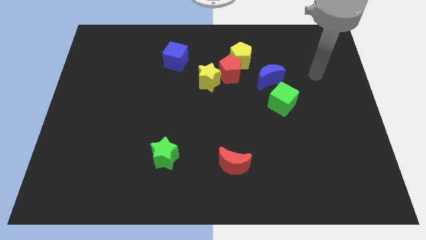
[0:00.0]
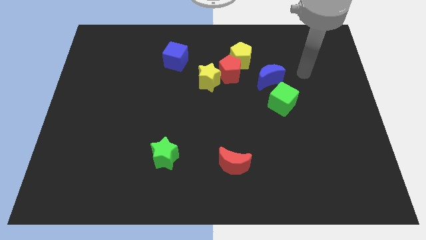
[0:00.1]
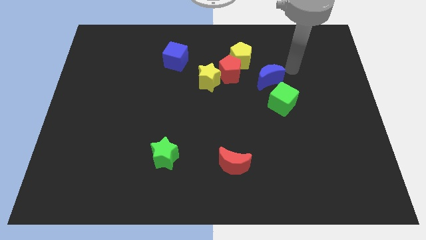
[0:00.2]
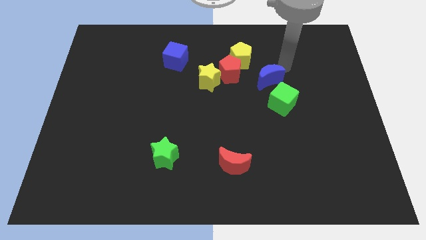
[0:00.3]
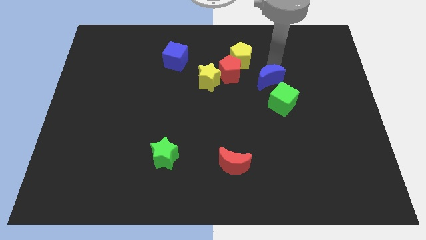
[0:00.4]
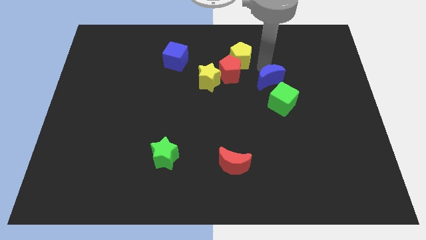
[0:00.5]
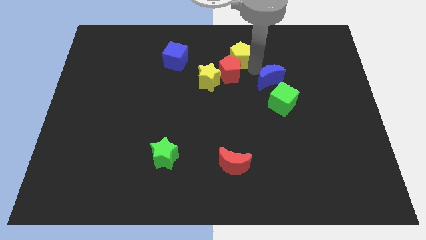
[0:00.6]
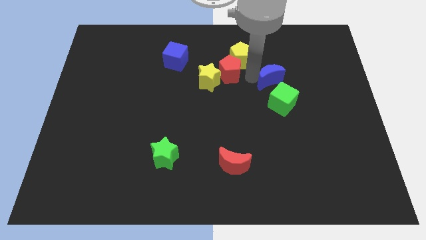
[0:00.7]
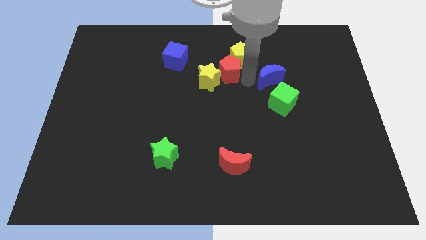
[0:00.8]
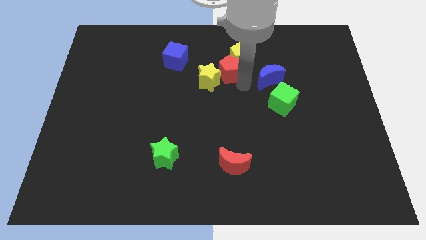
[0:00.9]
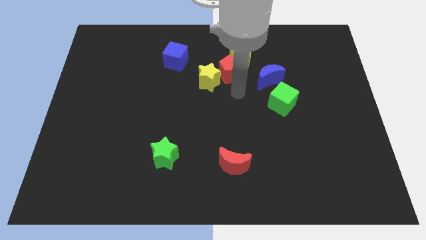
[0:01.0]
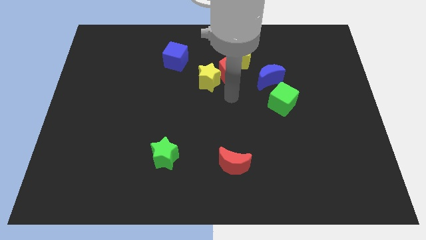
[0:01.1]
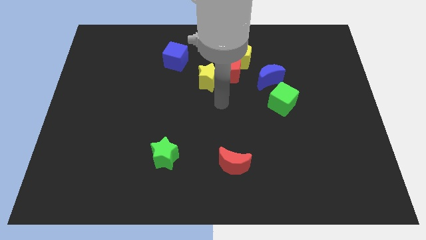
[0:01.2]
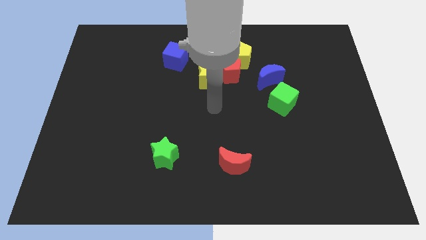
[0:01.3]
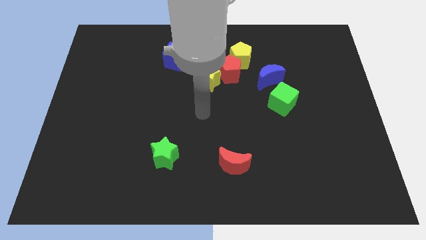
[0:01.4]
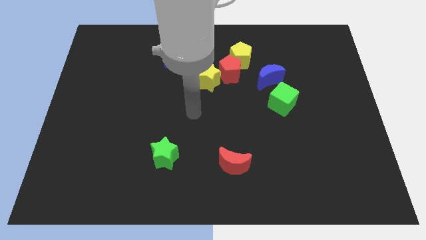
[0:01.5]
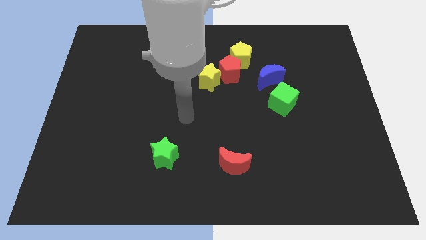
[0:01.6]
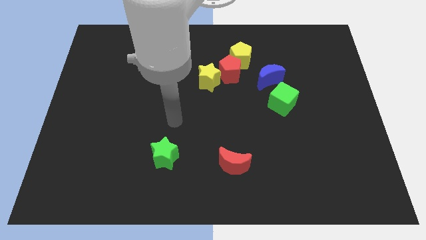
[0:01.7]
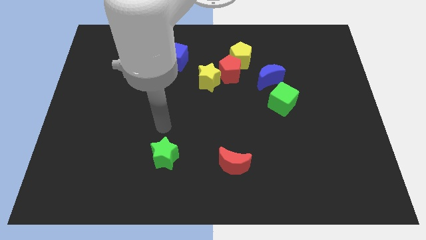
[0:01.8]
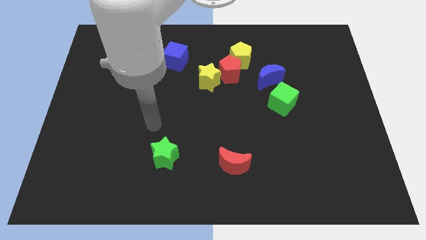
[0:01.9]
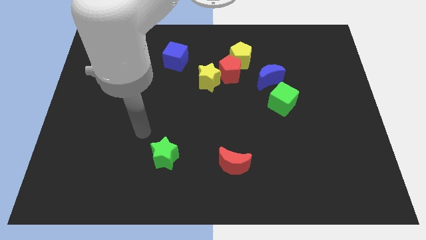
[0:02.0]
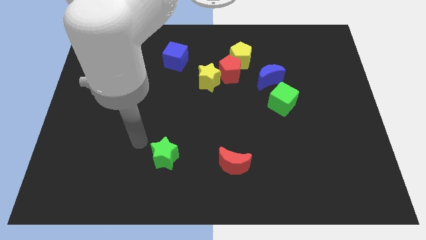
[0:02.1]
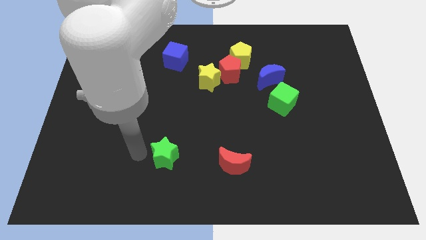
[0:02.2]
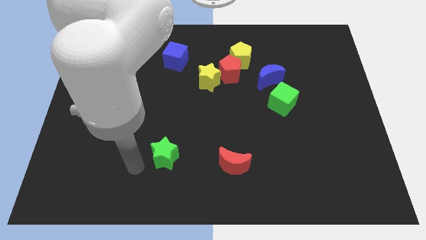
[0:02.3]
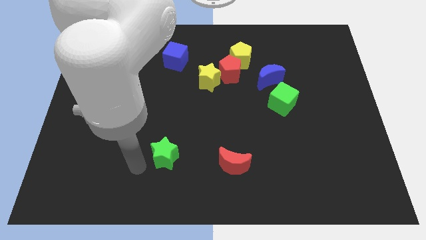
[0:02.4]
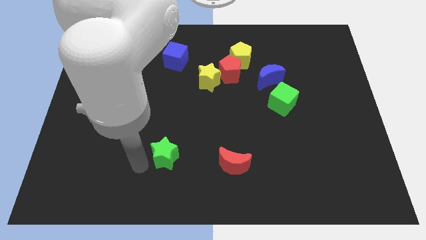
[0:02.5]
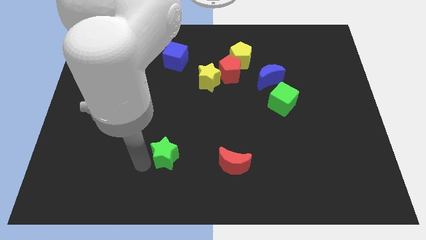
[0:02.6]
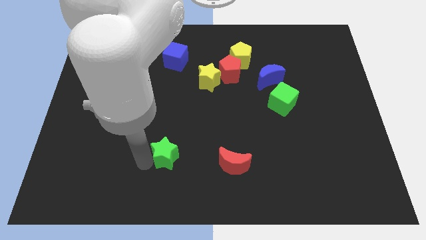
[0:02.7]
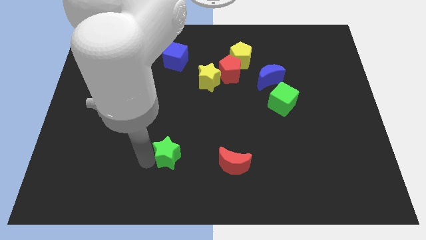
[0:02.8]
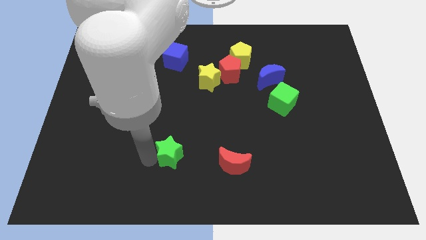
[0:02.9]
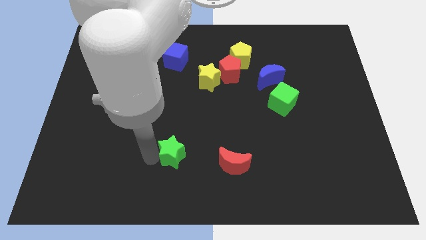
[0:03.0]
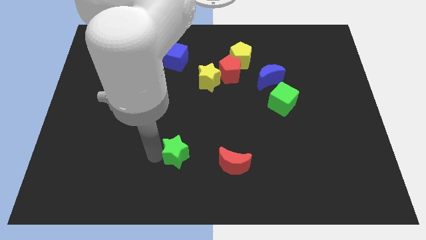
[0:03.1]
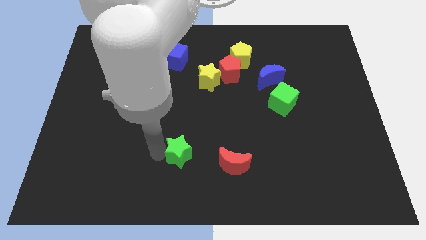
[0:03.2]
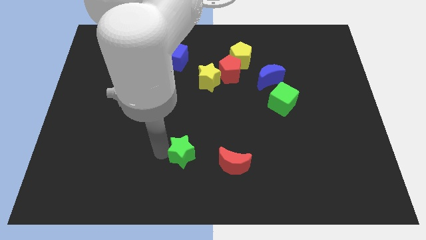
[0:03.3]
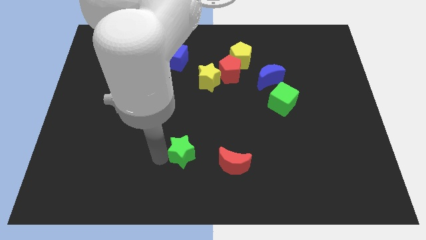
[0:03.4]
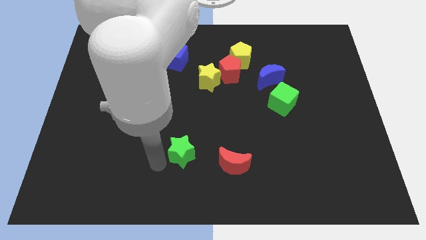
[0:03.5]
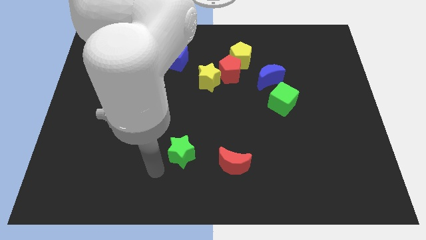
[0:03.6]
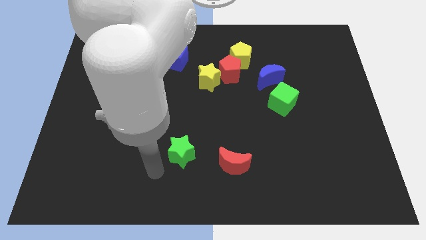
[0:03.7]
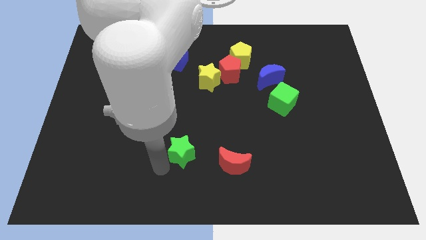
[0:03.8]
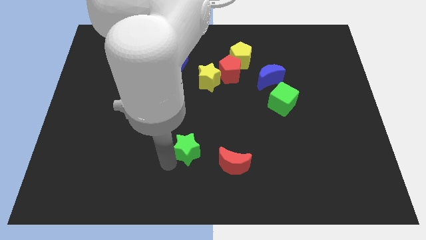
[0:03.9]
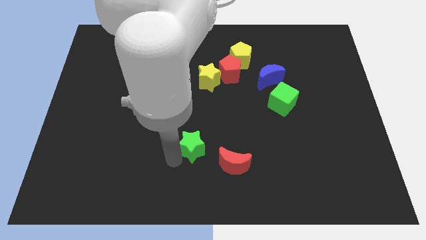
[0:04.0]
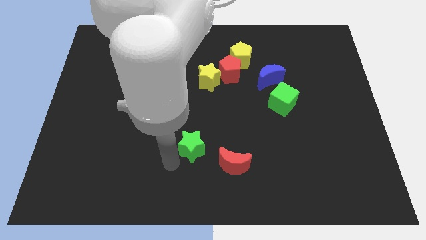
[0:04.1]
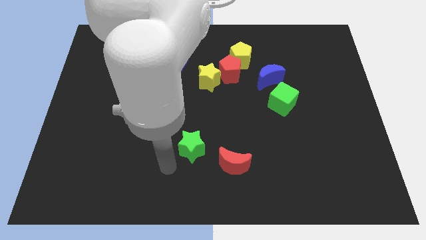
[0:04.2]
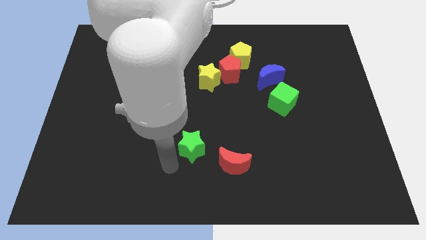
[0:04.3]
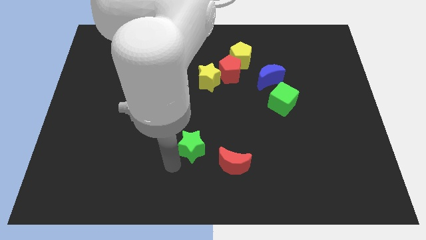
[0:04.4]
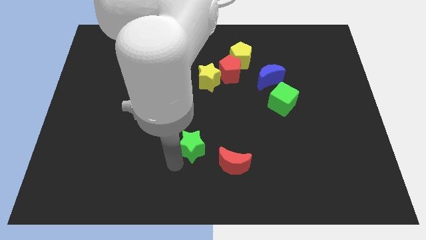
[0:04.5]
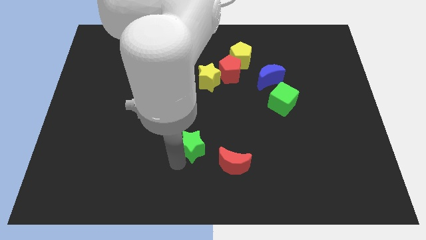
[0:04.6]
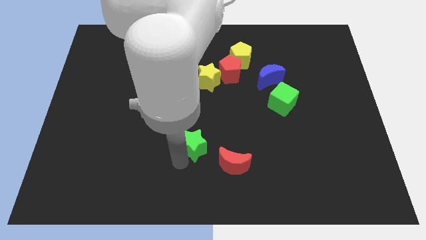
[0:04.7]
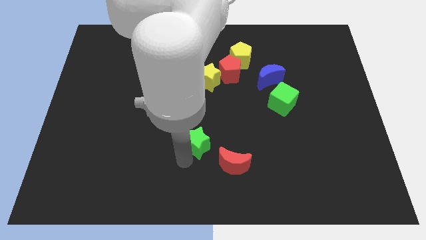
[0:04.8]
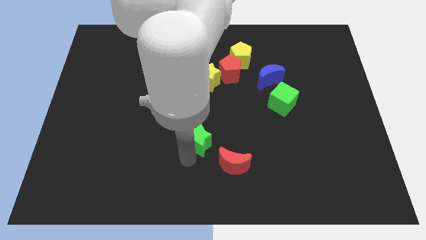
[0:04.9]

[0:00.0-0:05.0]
slide the green star a little bit right

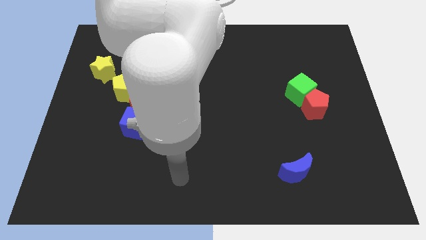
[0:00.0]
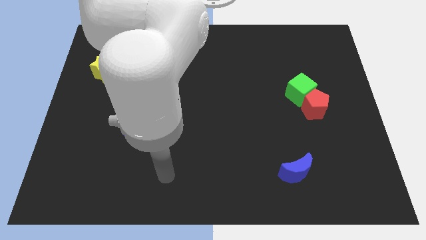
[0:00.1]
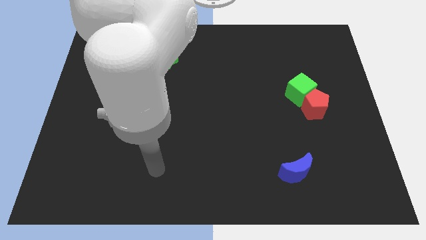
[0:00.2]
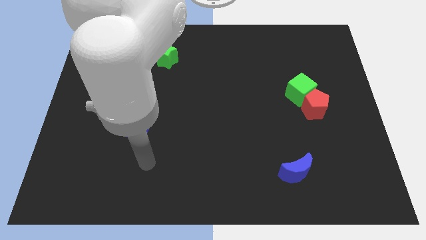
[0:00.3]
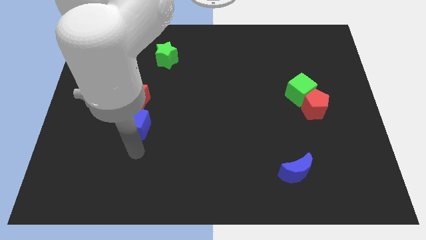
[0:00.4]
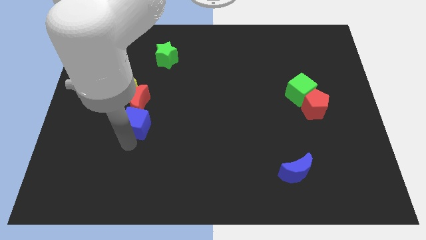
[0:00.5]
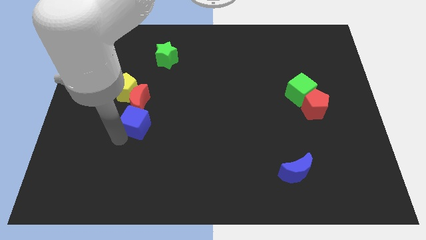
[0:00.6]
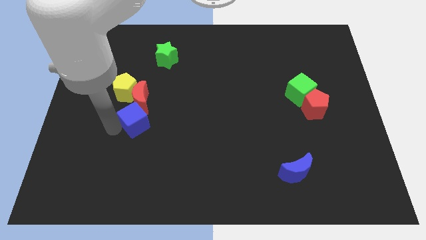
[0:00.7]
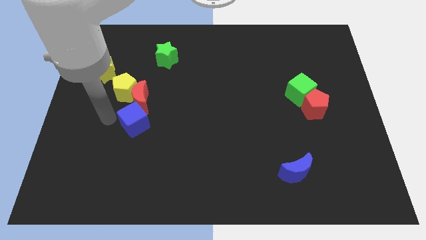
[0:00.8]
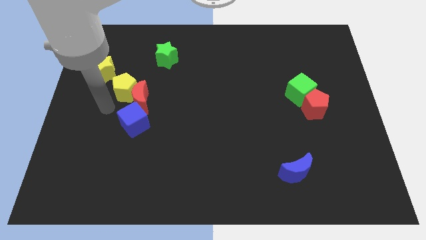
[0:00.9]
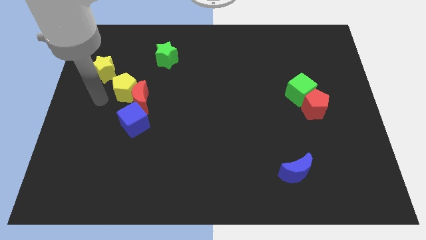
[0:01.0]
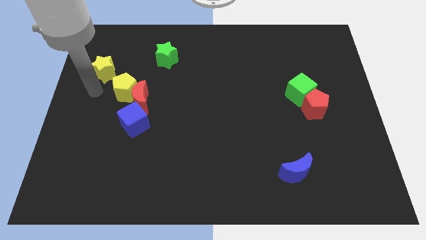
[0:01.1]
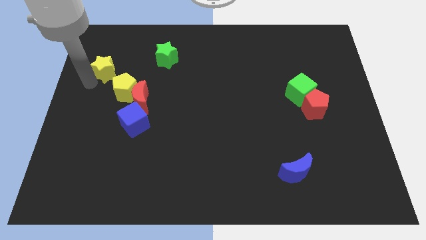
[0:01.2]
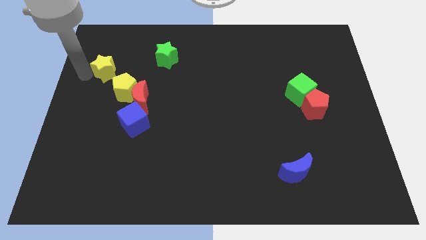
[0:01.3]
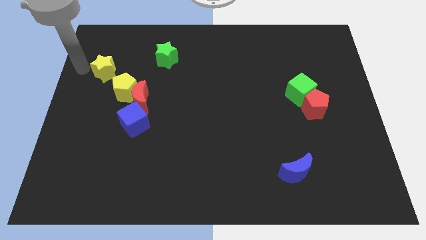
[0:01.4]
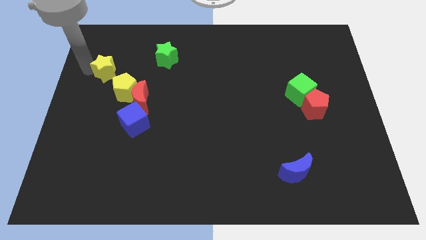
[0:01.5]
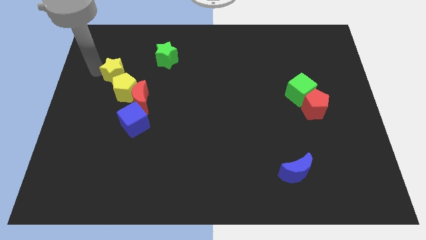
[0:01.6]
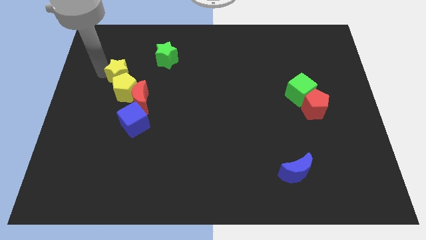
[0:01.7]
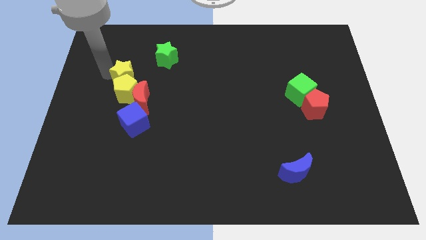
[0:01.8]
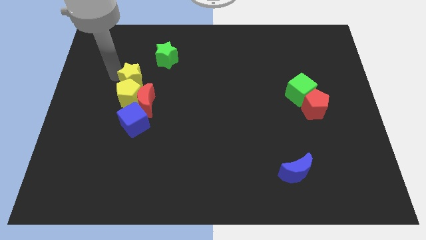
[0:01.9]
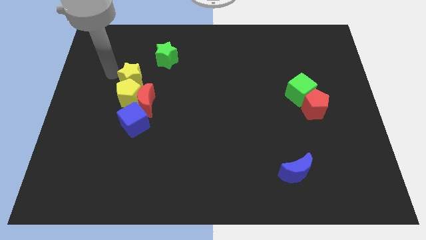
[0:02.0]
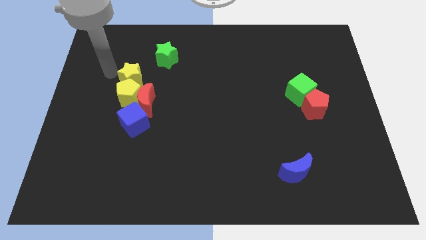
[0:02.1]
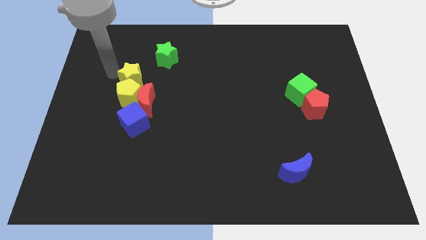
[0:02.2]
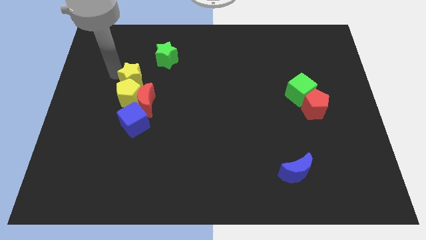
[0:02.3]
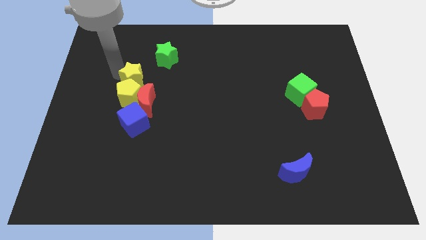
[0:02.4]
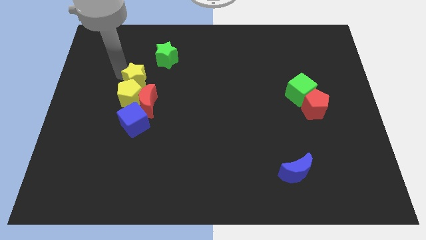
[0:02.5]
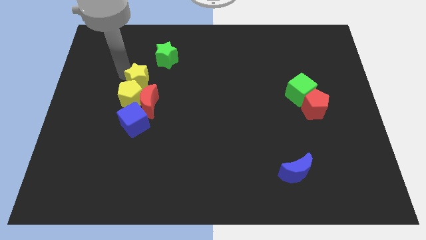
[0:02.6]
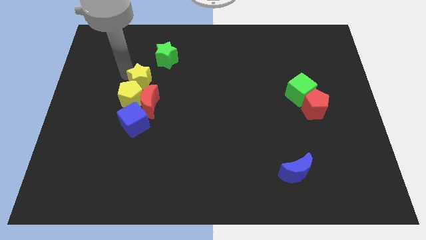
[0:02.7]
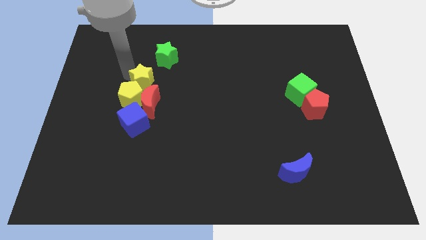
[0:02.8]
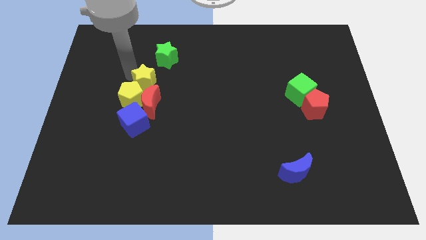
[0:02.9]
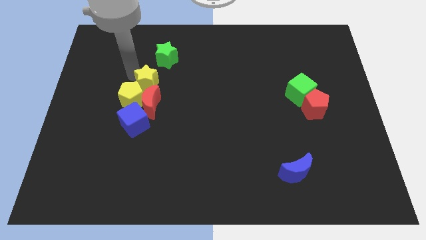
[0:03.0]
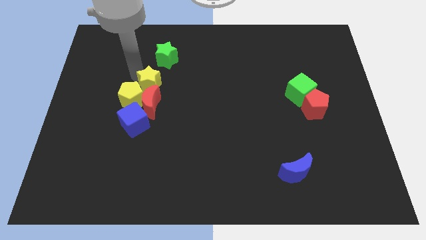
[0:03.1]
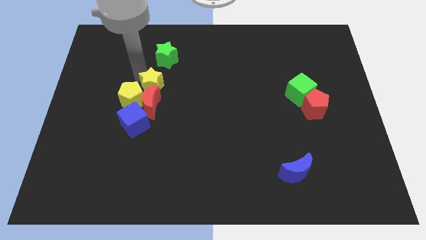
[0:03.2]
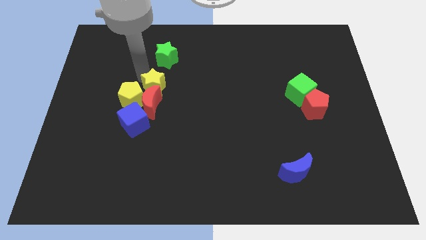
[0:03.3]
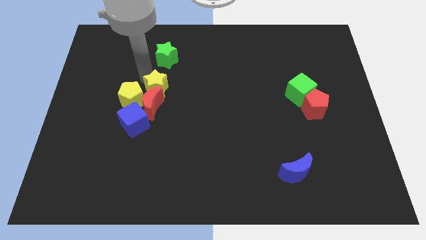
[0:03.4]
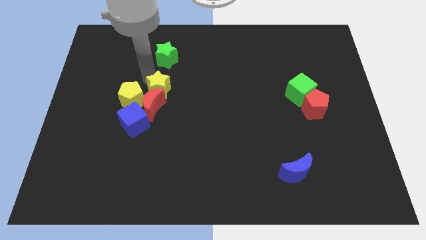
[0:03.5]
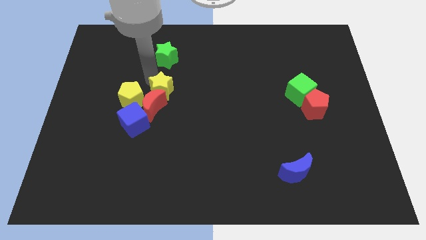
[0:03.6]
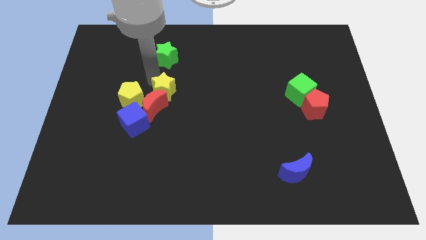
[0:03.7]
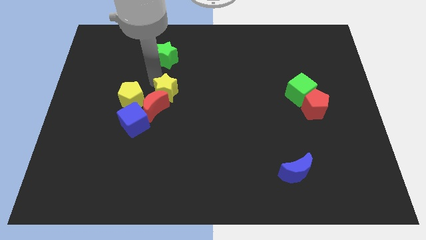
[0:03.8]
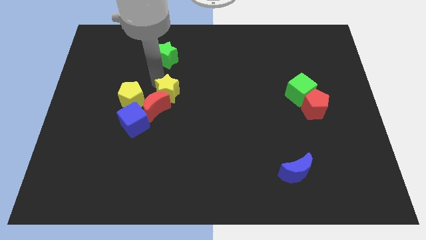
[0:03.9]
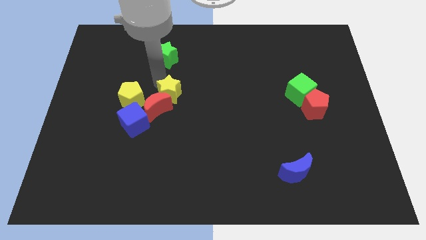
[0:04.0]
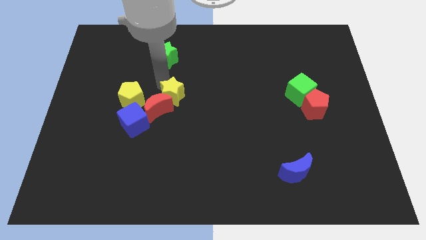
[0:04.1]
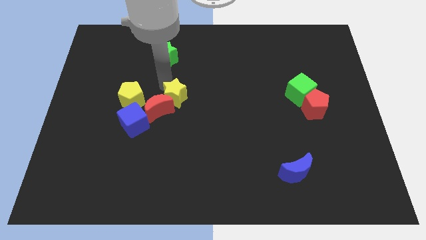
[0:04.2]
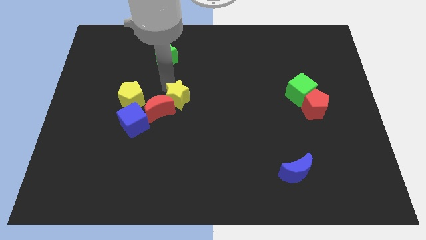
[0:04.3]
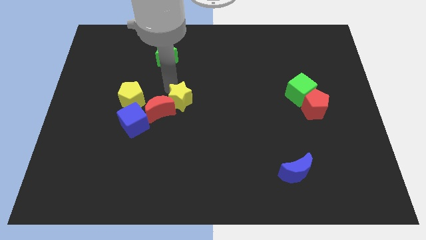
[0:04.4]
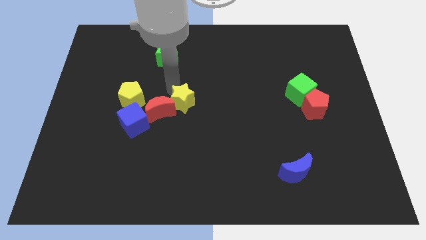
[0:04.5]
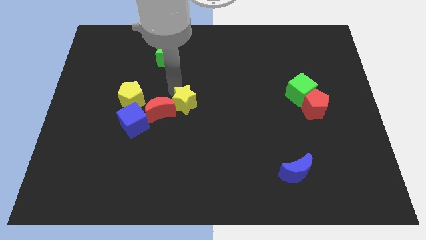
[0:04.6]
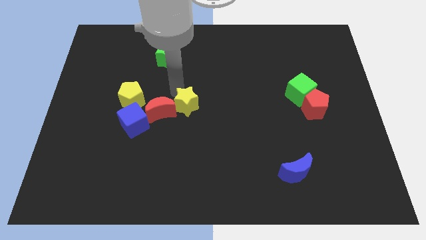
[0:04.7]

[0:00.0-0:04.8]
slide the yellow star downwards and then right
